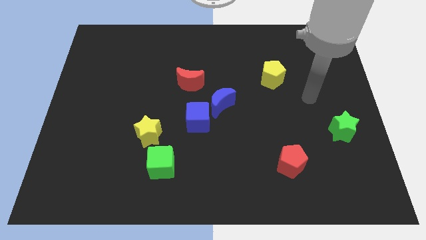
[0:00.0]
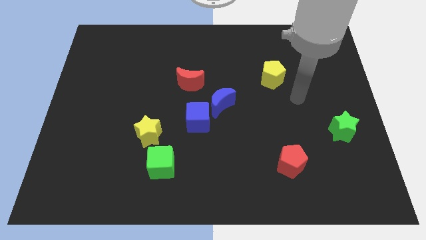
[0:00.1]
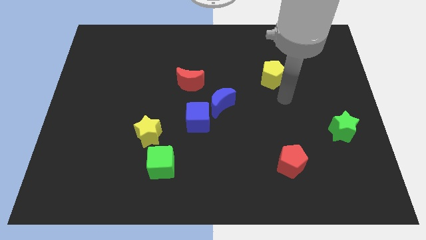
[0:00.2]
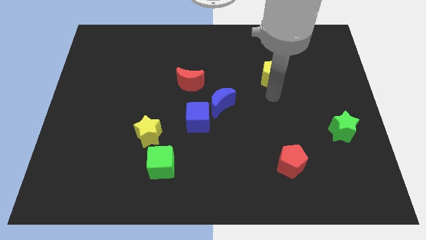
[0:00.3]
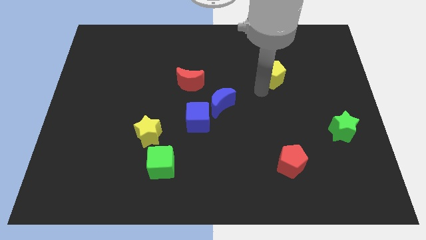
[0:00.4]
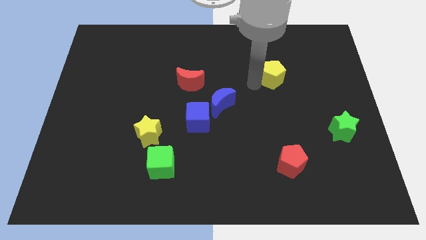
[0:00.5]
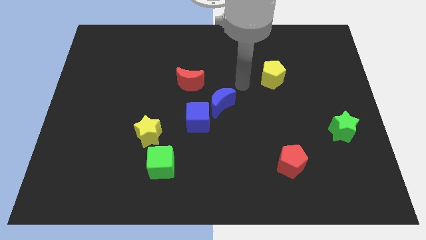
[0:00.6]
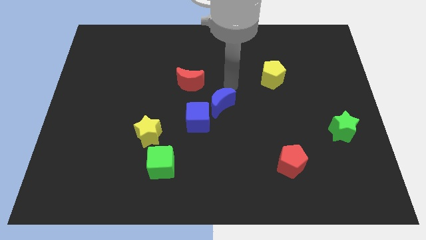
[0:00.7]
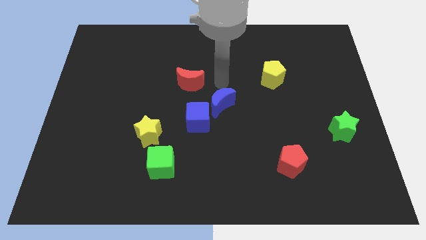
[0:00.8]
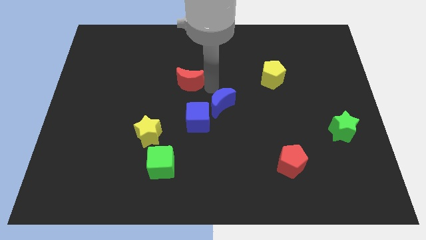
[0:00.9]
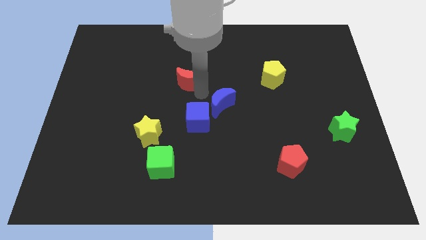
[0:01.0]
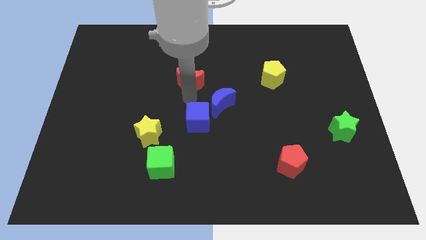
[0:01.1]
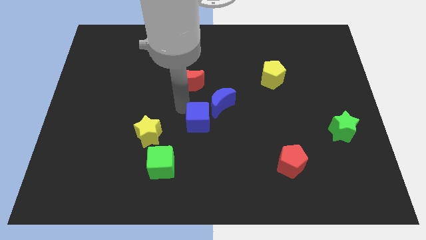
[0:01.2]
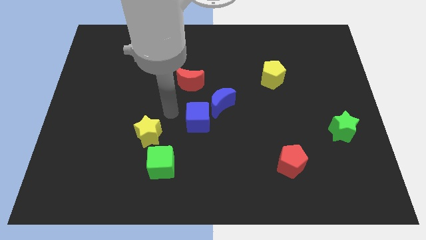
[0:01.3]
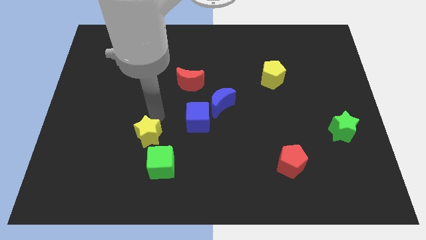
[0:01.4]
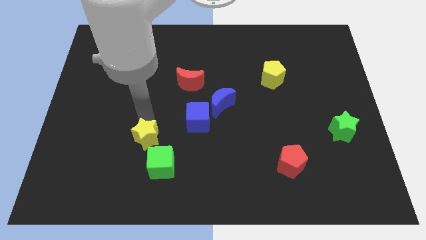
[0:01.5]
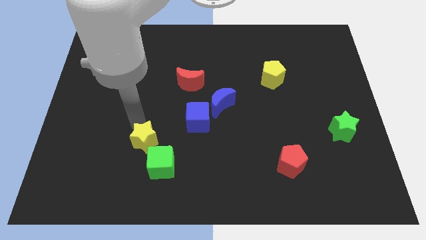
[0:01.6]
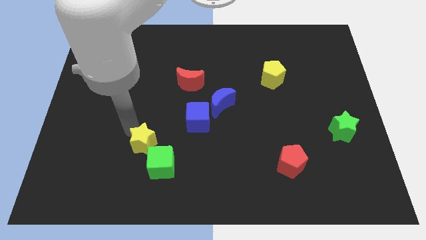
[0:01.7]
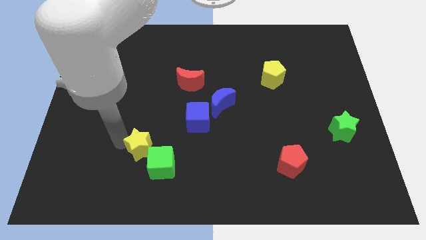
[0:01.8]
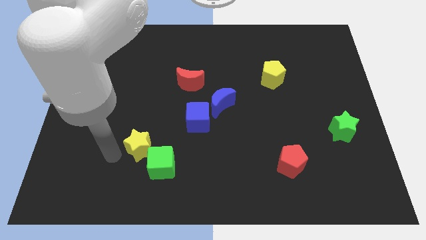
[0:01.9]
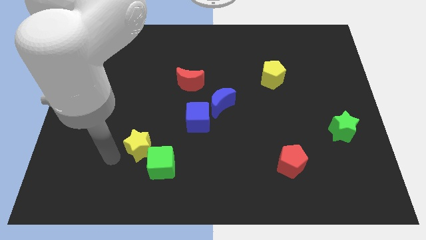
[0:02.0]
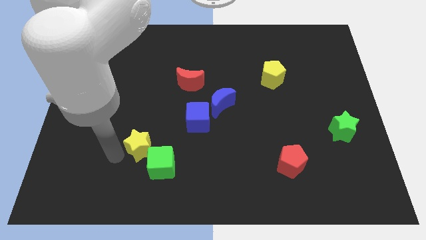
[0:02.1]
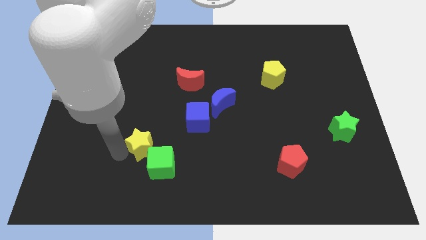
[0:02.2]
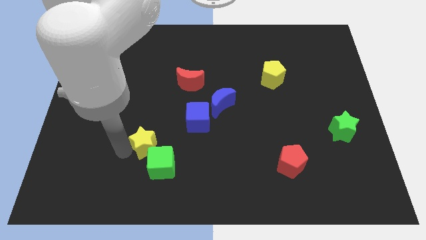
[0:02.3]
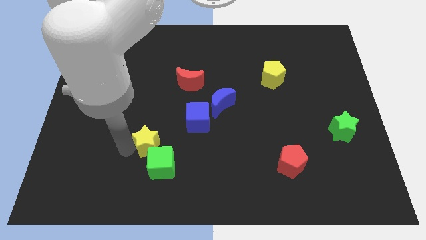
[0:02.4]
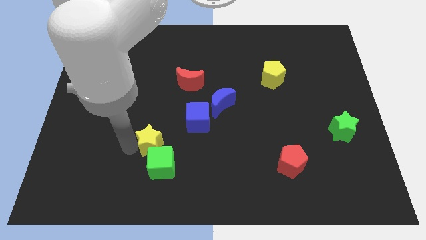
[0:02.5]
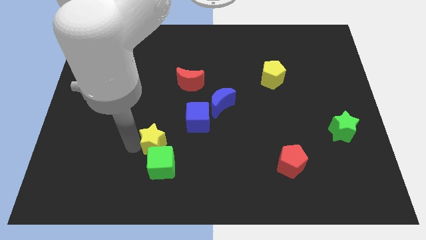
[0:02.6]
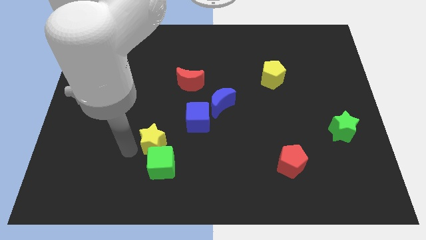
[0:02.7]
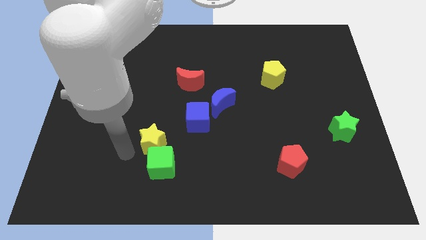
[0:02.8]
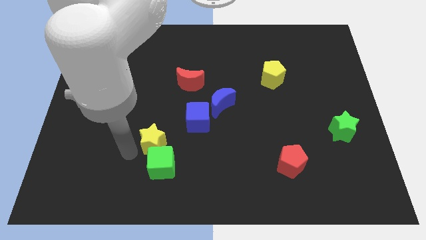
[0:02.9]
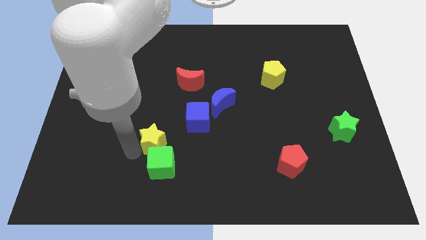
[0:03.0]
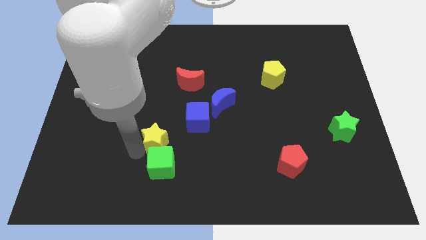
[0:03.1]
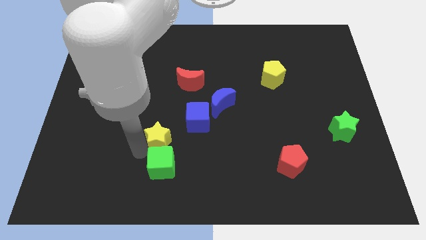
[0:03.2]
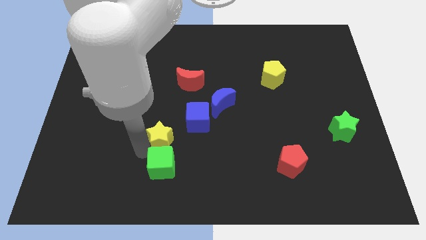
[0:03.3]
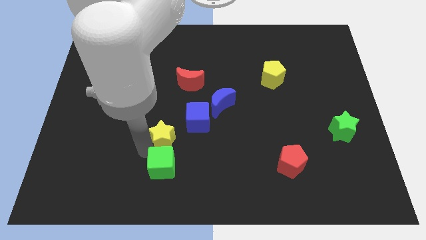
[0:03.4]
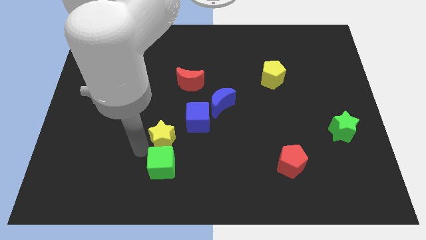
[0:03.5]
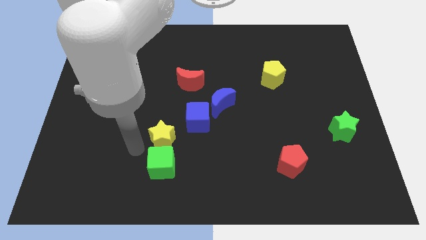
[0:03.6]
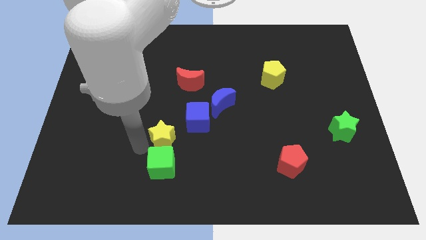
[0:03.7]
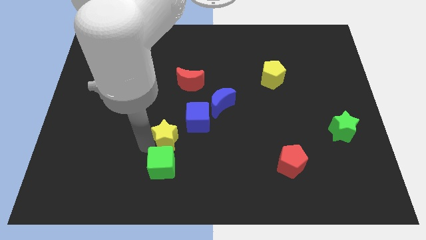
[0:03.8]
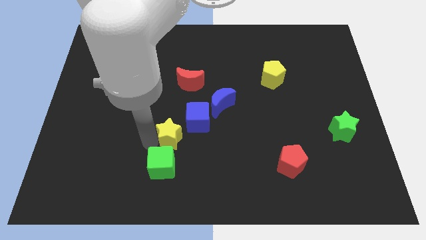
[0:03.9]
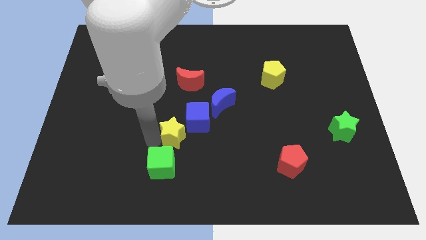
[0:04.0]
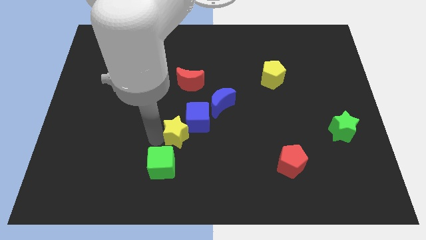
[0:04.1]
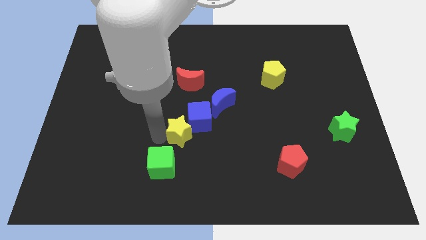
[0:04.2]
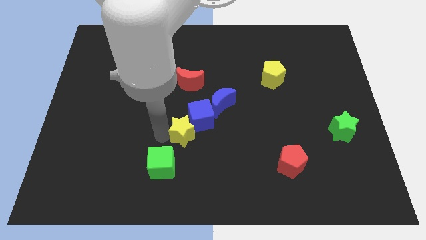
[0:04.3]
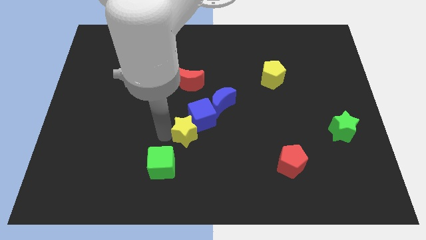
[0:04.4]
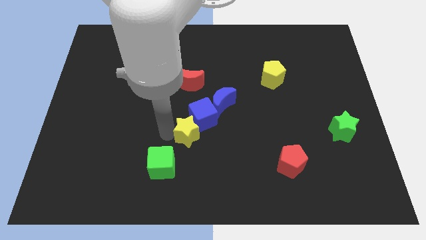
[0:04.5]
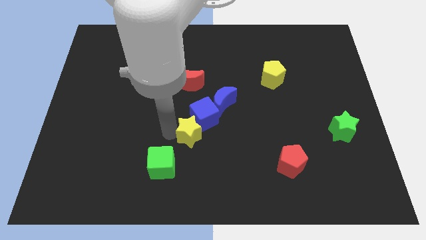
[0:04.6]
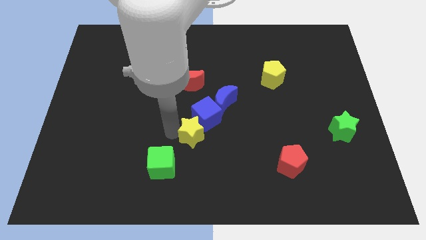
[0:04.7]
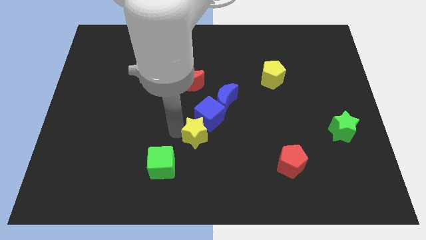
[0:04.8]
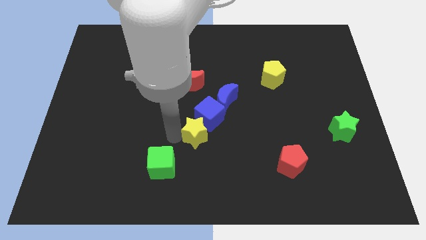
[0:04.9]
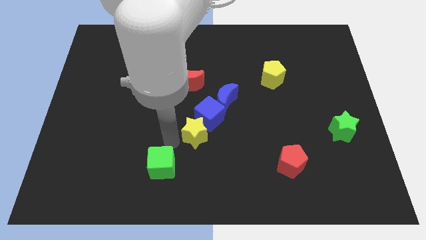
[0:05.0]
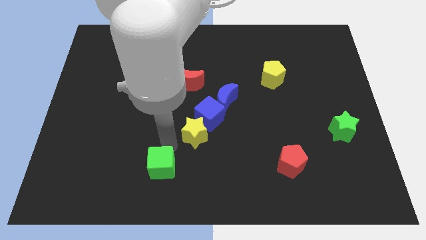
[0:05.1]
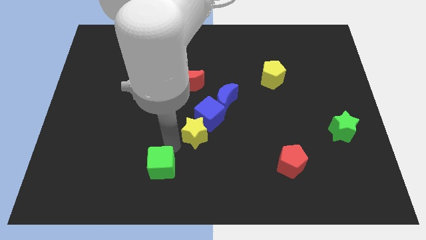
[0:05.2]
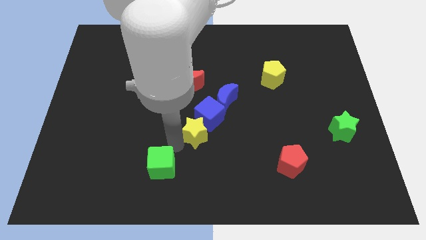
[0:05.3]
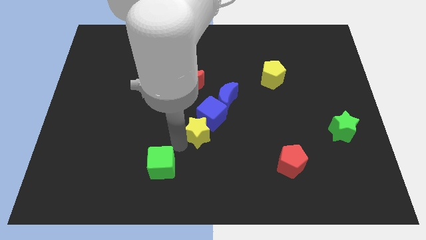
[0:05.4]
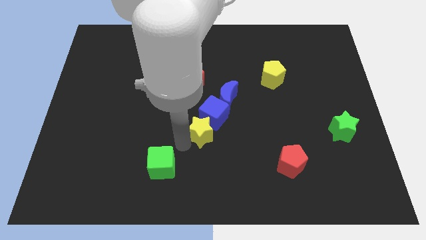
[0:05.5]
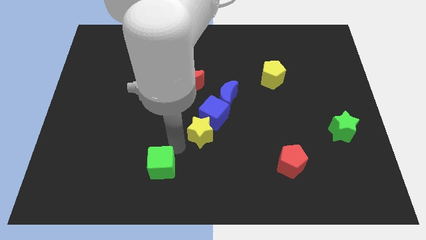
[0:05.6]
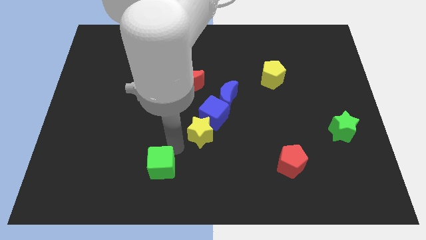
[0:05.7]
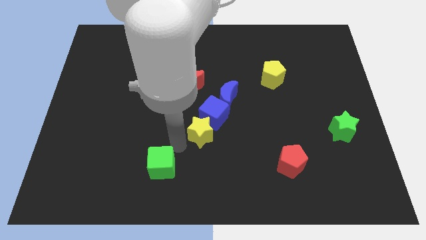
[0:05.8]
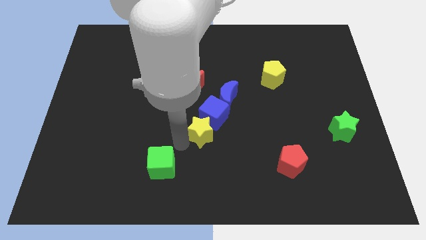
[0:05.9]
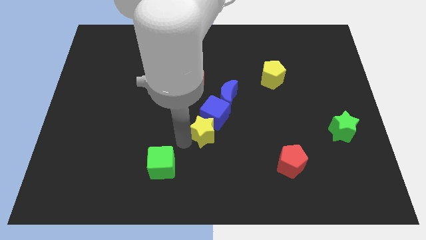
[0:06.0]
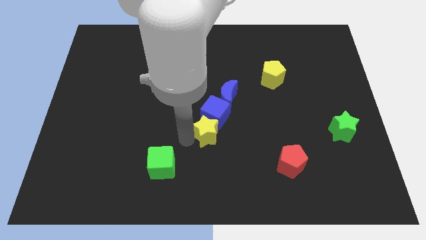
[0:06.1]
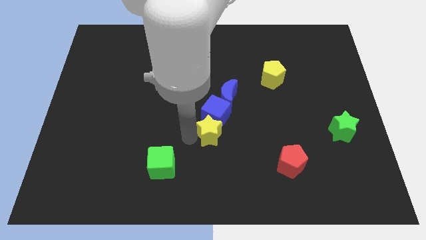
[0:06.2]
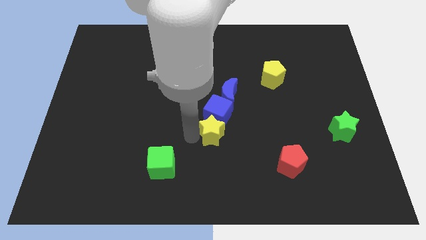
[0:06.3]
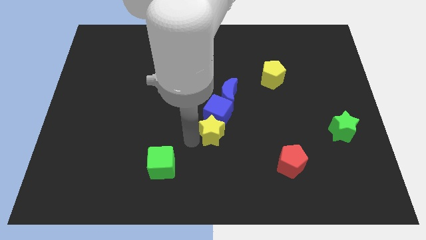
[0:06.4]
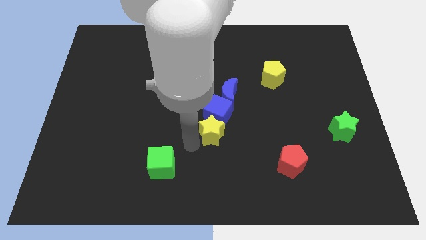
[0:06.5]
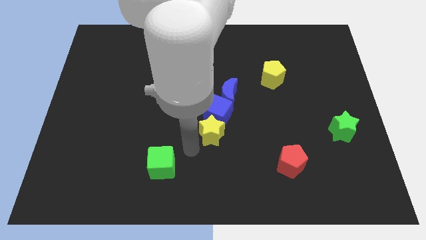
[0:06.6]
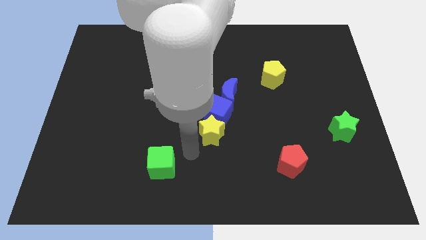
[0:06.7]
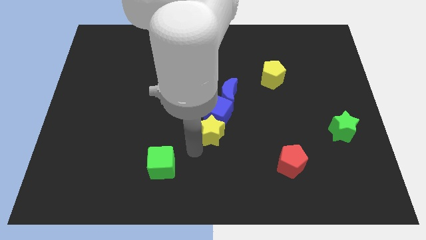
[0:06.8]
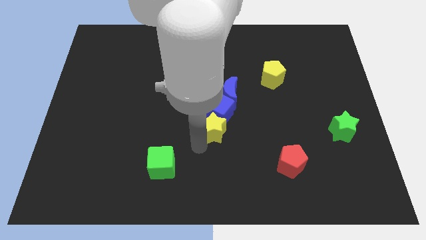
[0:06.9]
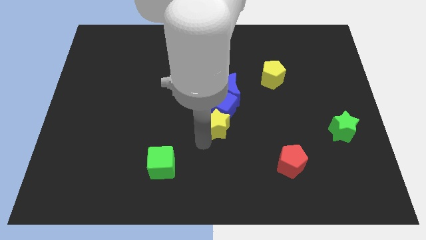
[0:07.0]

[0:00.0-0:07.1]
slightly slide the yellow star up and then to the right

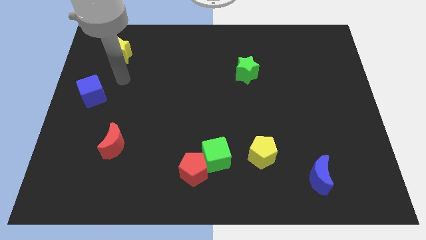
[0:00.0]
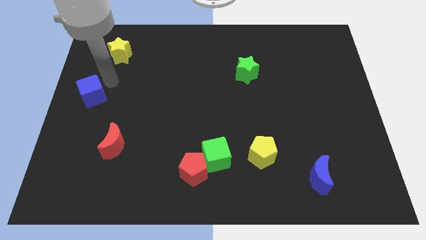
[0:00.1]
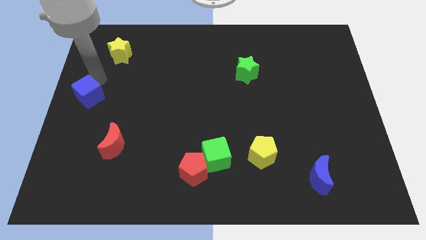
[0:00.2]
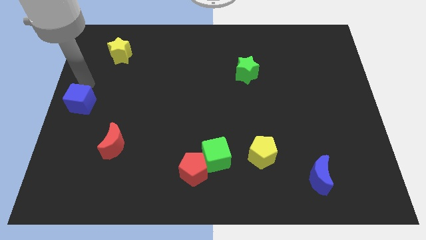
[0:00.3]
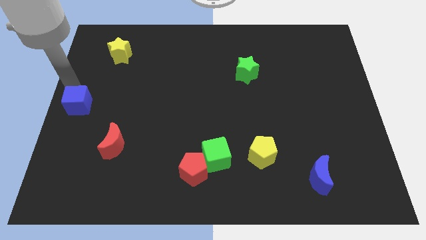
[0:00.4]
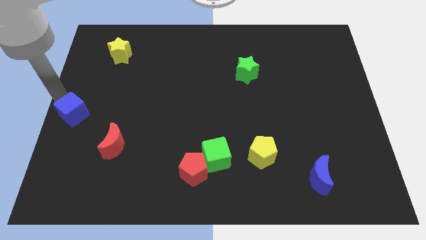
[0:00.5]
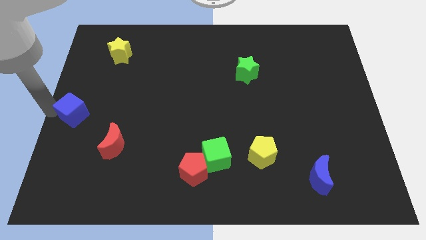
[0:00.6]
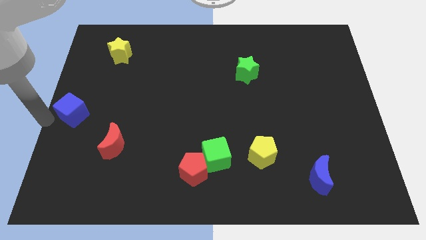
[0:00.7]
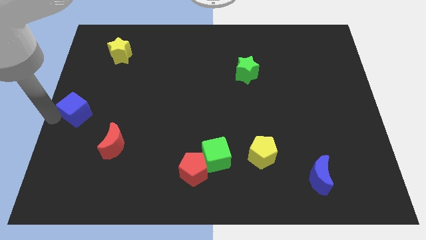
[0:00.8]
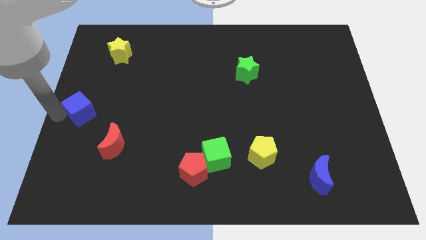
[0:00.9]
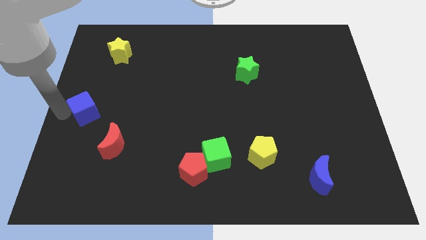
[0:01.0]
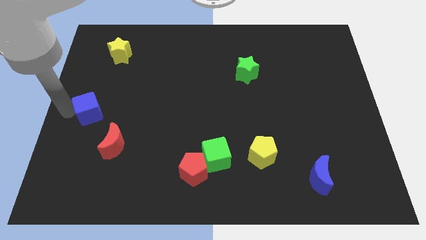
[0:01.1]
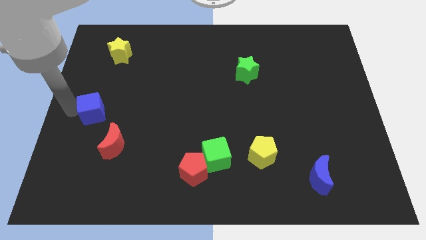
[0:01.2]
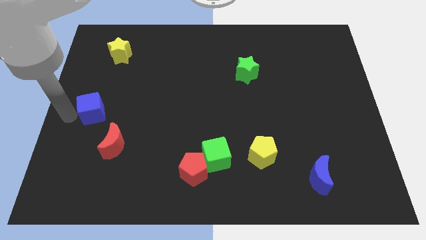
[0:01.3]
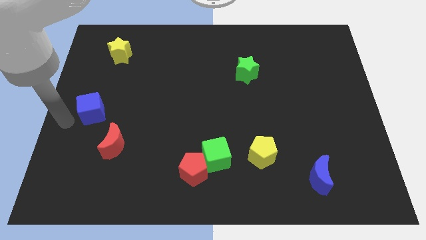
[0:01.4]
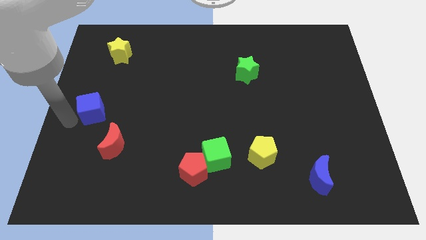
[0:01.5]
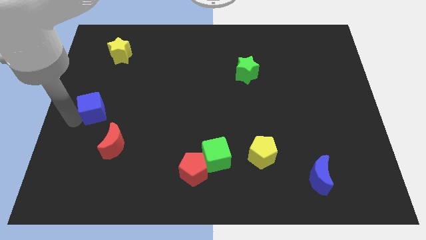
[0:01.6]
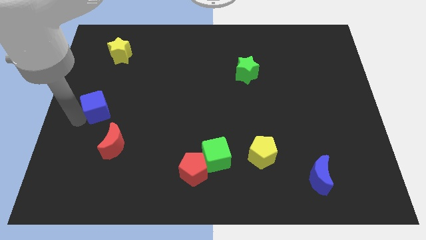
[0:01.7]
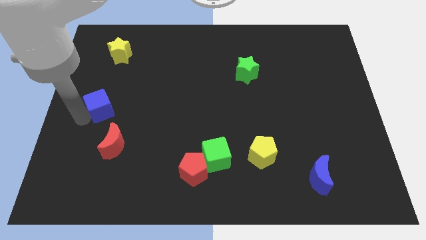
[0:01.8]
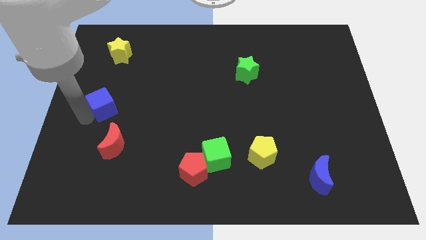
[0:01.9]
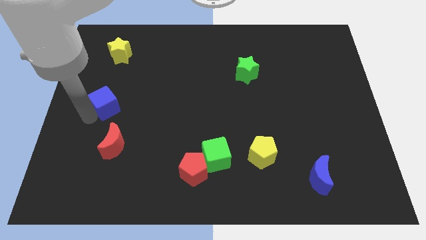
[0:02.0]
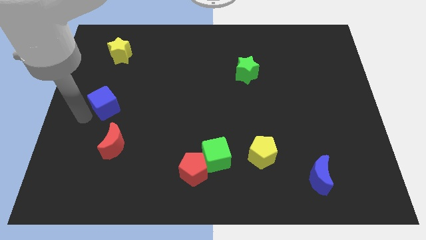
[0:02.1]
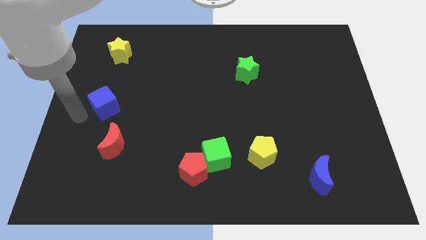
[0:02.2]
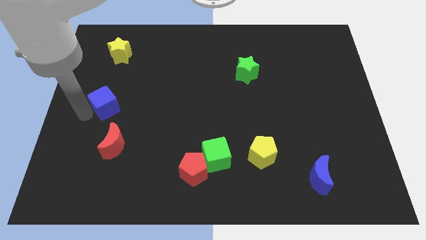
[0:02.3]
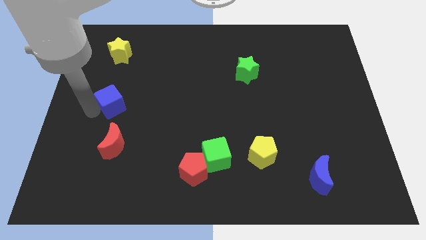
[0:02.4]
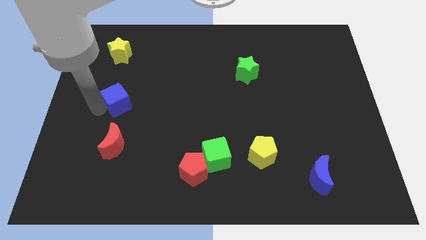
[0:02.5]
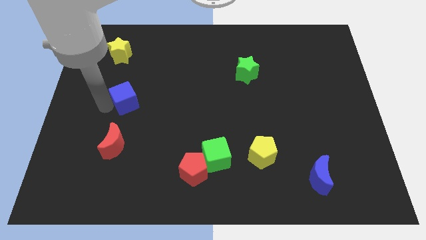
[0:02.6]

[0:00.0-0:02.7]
slightly move the blue cube right
